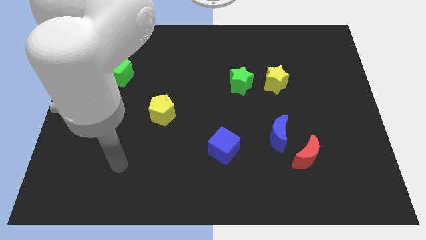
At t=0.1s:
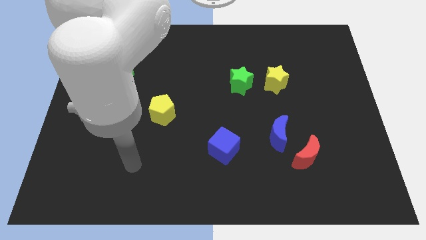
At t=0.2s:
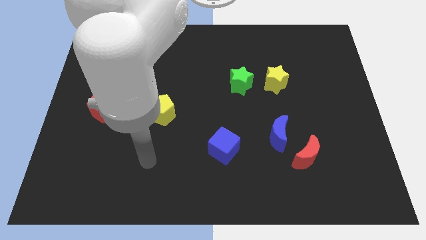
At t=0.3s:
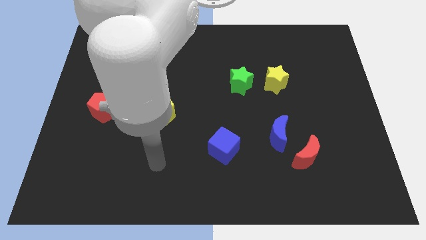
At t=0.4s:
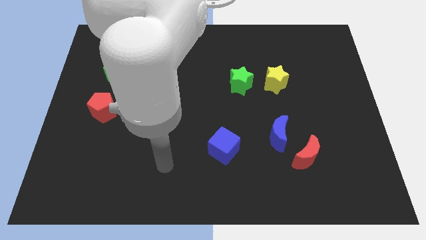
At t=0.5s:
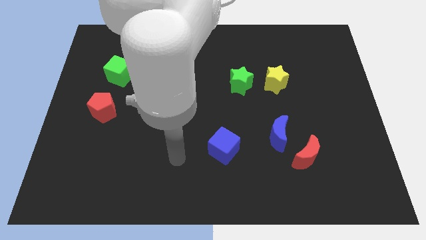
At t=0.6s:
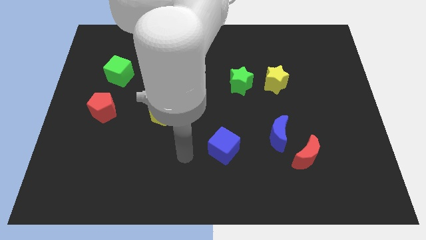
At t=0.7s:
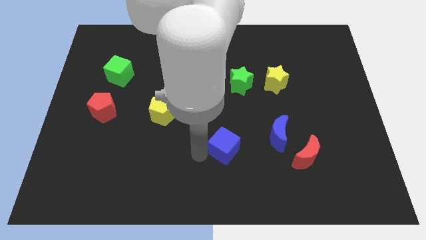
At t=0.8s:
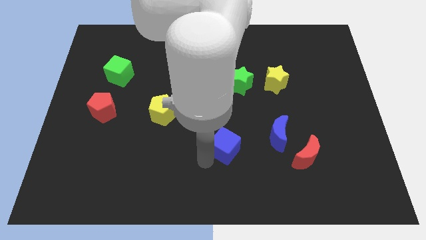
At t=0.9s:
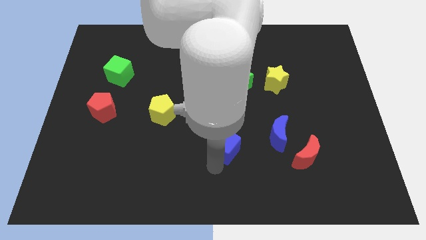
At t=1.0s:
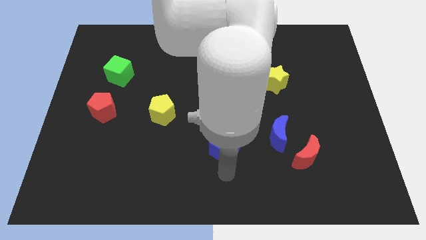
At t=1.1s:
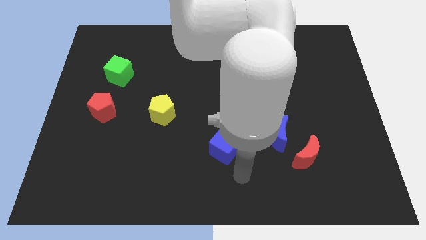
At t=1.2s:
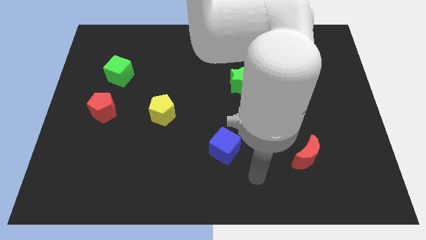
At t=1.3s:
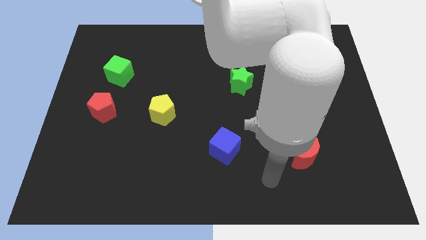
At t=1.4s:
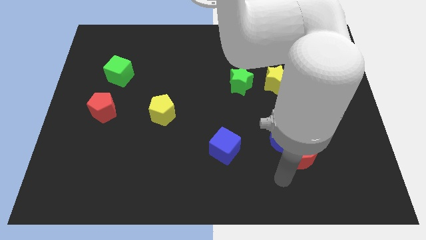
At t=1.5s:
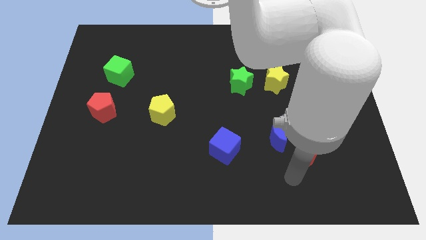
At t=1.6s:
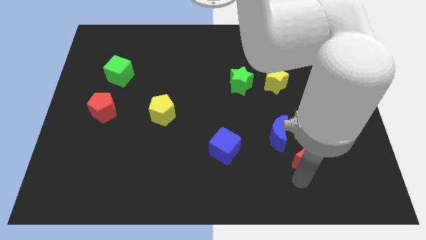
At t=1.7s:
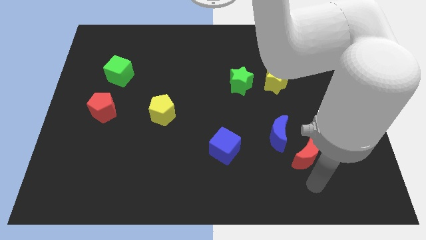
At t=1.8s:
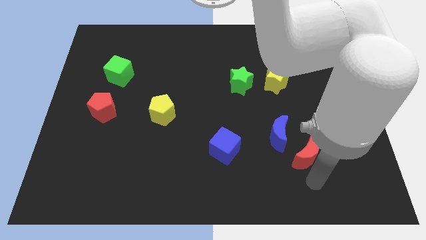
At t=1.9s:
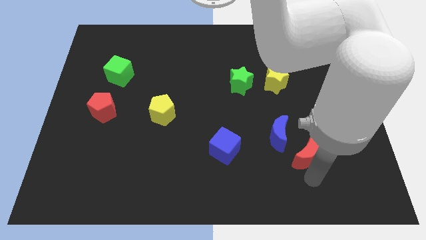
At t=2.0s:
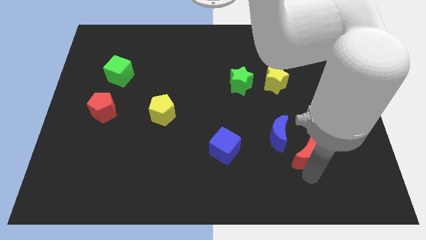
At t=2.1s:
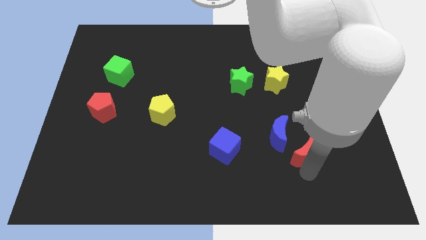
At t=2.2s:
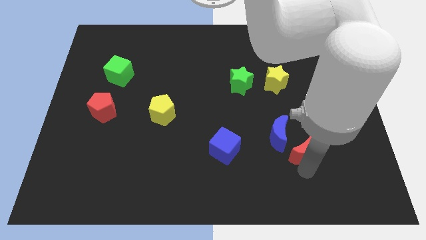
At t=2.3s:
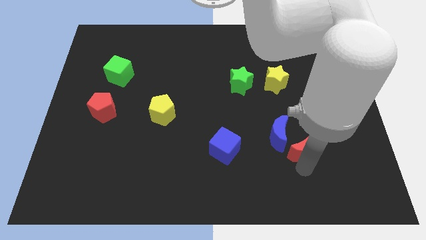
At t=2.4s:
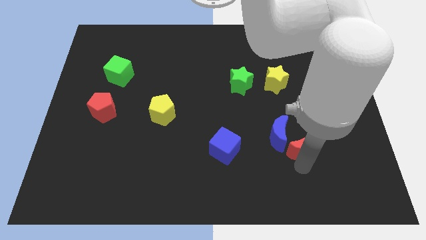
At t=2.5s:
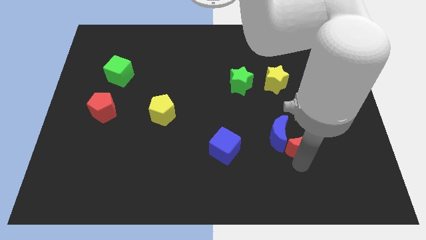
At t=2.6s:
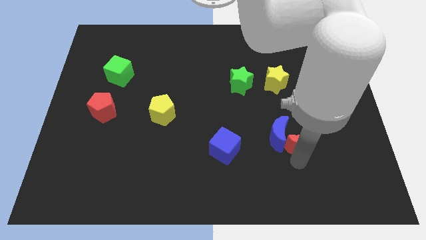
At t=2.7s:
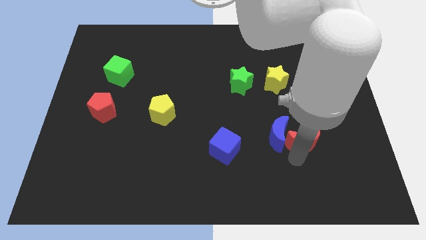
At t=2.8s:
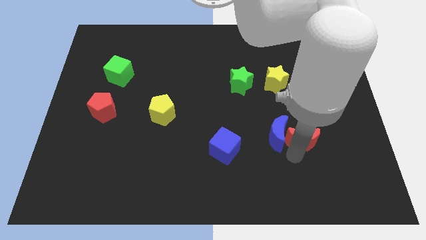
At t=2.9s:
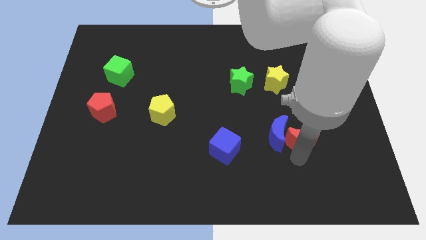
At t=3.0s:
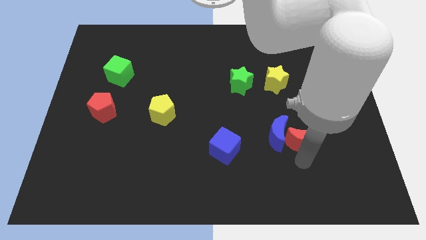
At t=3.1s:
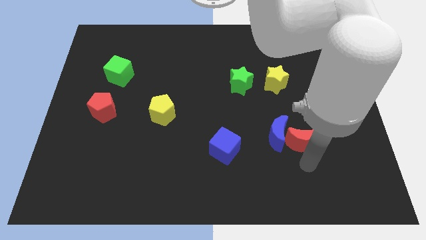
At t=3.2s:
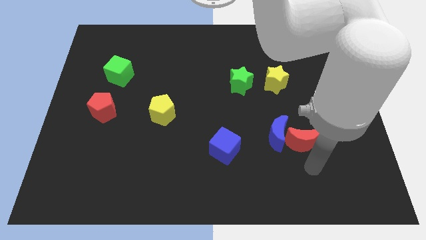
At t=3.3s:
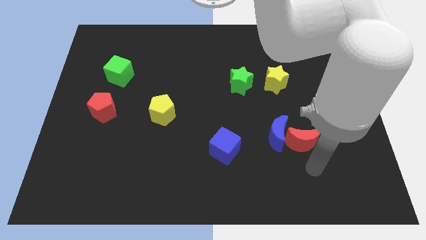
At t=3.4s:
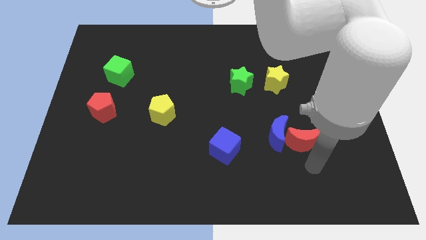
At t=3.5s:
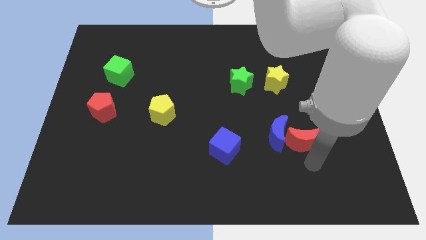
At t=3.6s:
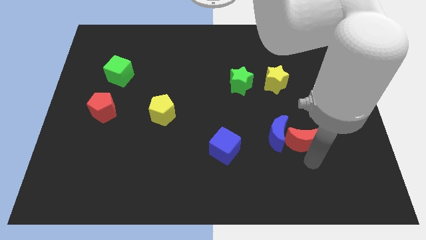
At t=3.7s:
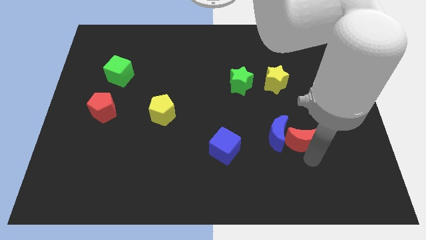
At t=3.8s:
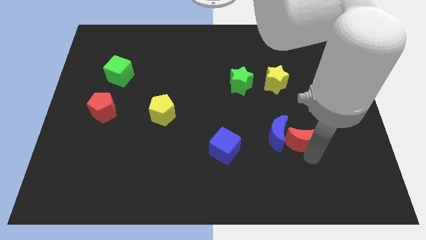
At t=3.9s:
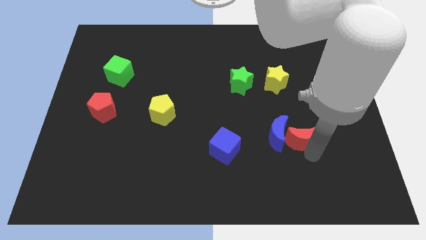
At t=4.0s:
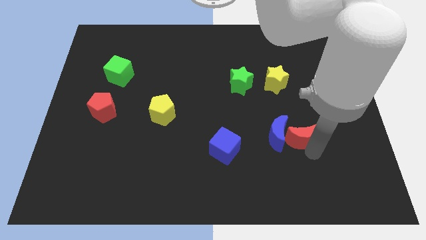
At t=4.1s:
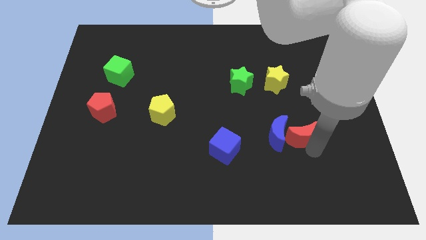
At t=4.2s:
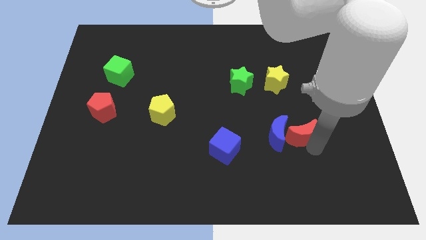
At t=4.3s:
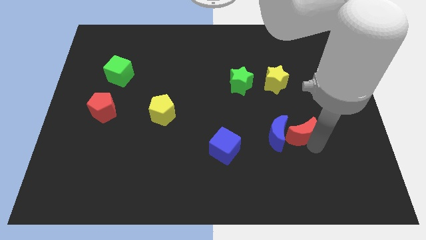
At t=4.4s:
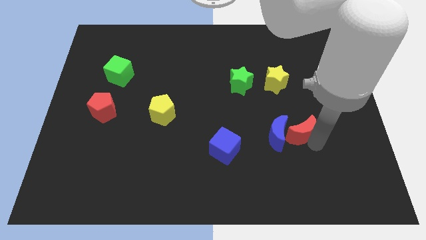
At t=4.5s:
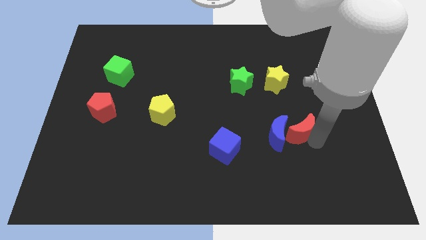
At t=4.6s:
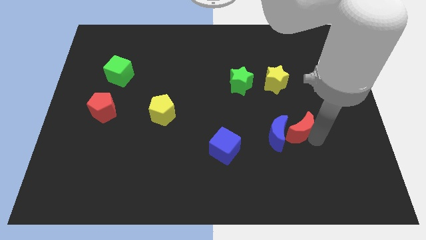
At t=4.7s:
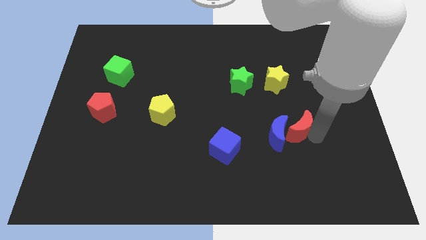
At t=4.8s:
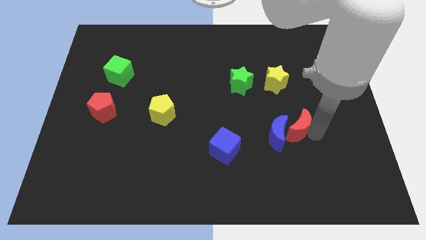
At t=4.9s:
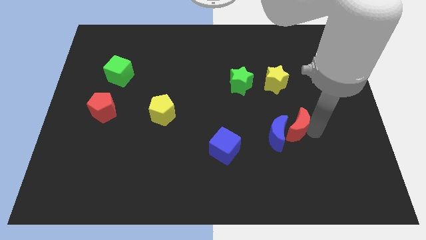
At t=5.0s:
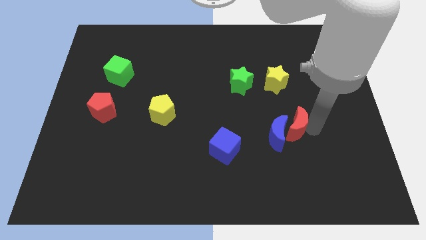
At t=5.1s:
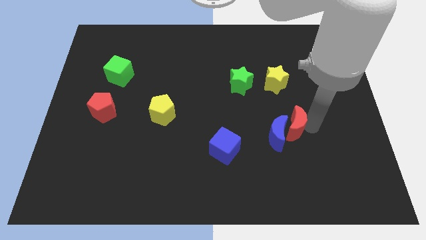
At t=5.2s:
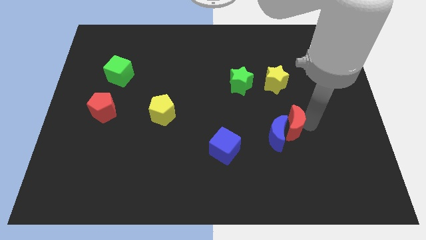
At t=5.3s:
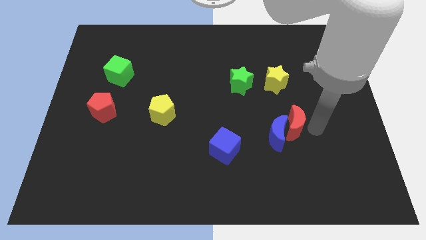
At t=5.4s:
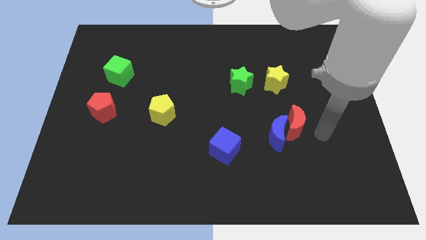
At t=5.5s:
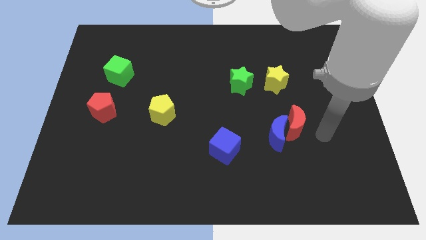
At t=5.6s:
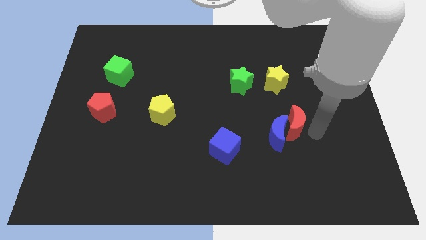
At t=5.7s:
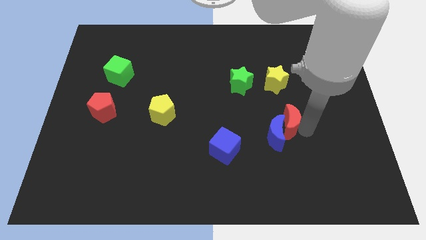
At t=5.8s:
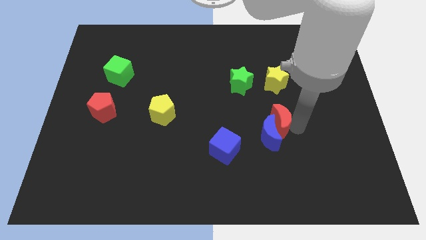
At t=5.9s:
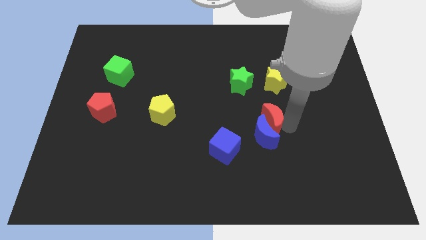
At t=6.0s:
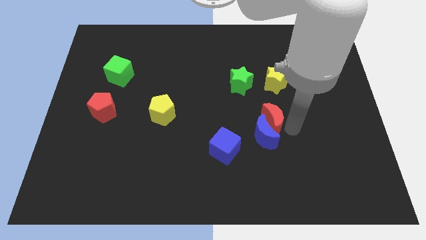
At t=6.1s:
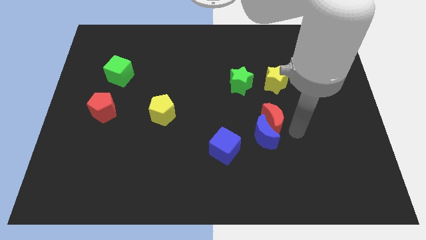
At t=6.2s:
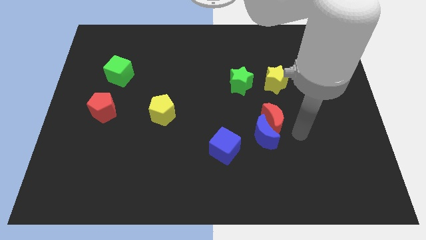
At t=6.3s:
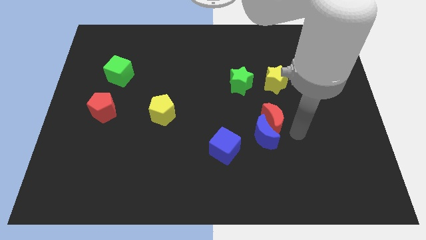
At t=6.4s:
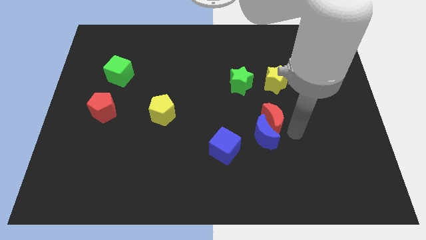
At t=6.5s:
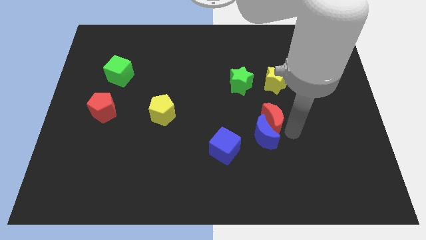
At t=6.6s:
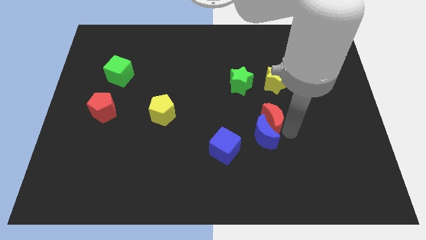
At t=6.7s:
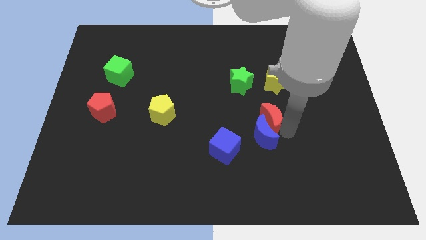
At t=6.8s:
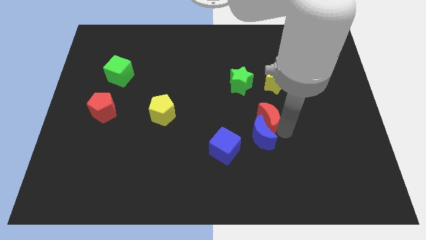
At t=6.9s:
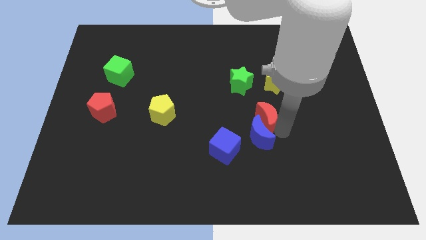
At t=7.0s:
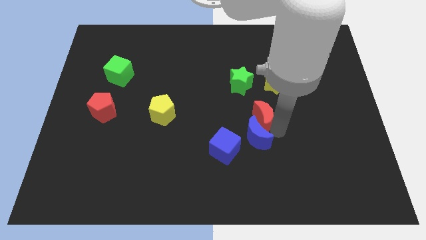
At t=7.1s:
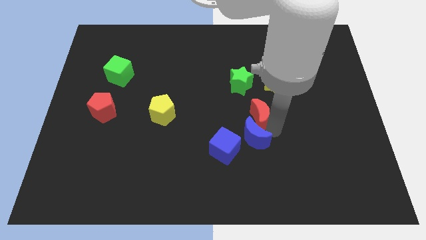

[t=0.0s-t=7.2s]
put the red moon to the center of the board
